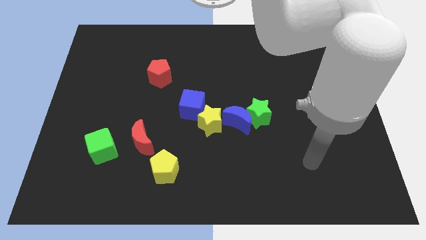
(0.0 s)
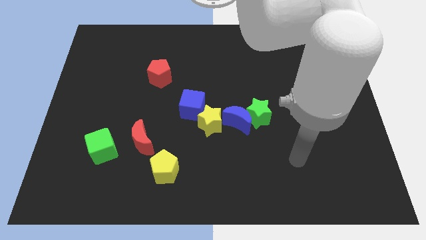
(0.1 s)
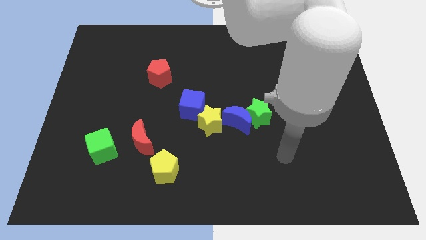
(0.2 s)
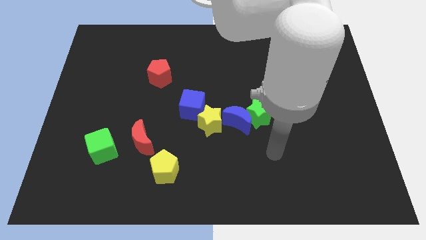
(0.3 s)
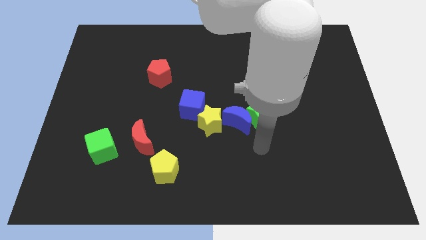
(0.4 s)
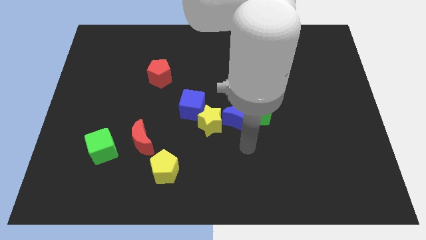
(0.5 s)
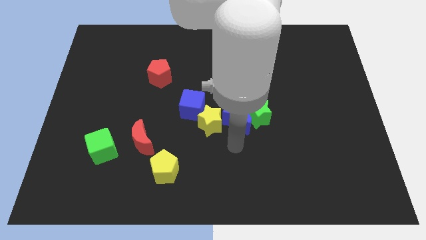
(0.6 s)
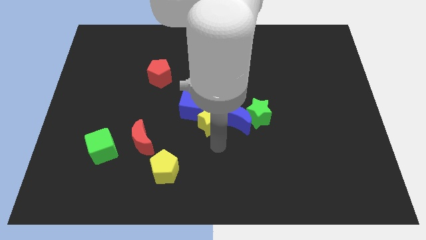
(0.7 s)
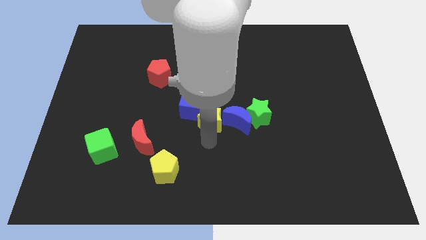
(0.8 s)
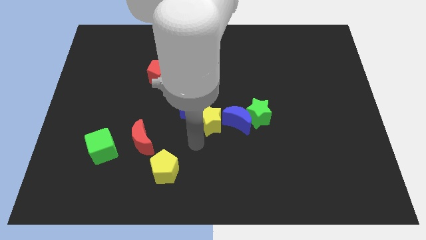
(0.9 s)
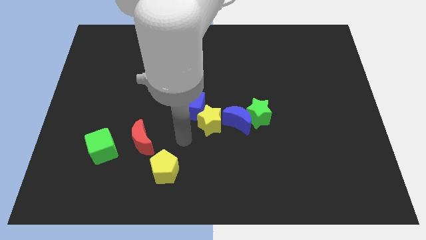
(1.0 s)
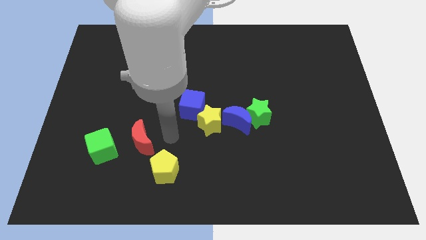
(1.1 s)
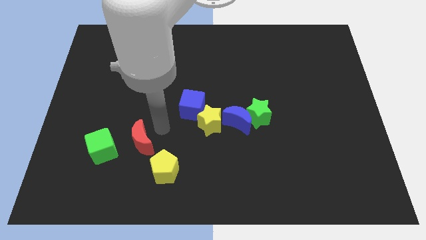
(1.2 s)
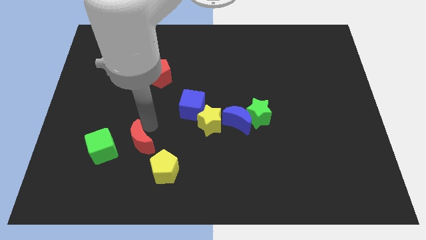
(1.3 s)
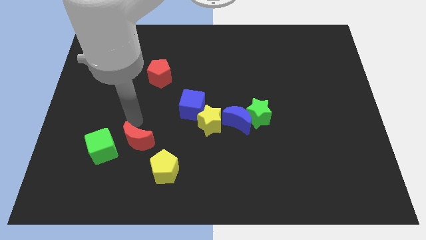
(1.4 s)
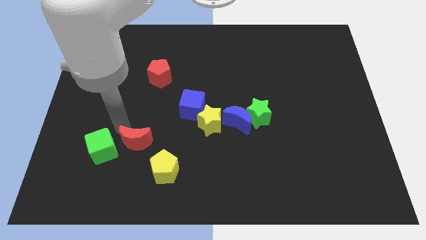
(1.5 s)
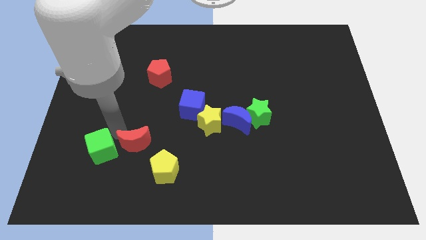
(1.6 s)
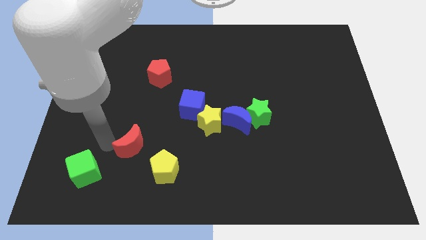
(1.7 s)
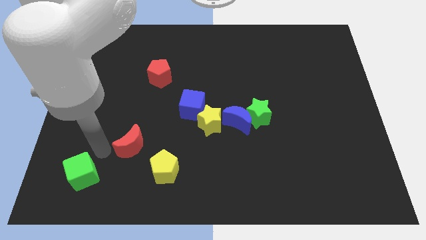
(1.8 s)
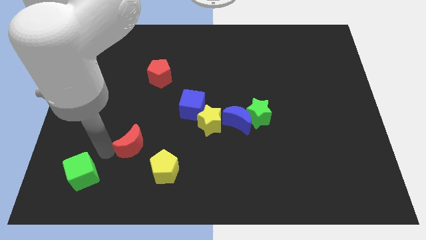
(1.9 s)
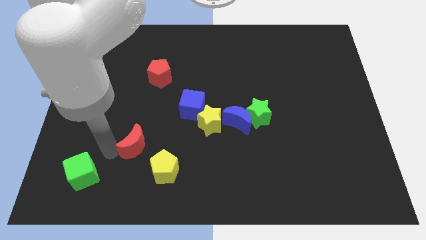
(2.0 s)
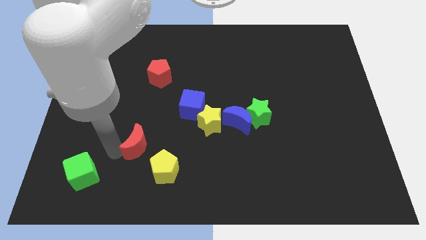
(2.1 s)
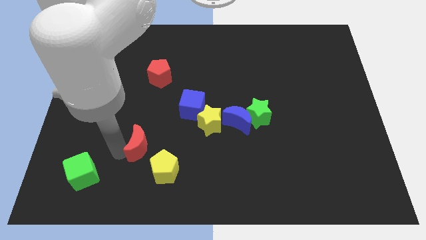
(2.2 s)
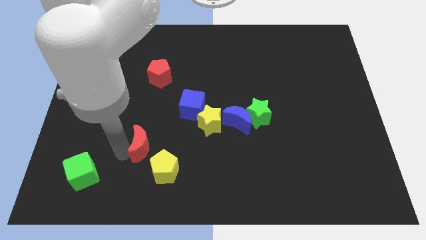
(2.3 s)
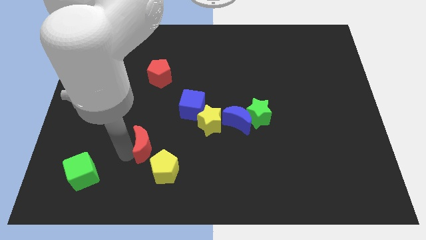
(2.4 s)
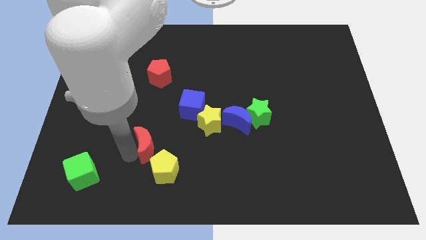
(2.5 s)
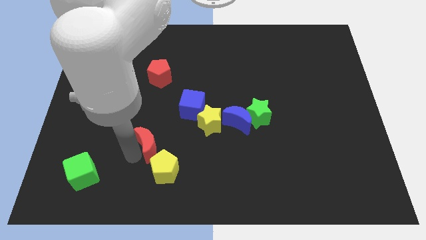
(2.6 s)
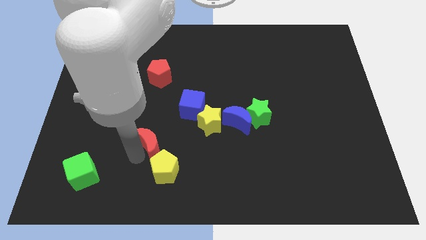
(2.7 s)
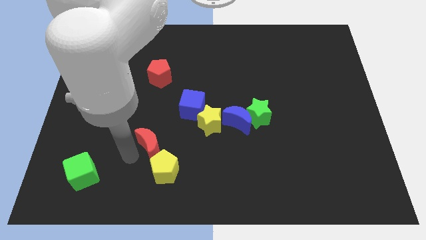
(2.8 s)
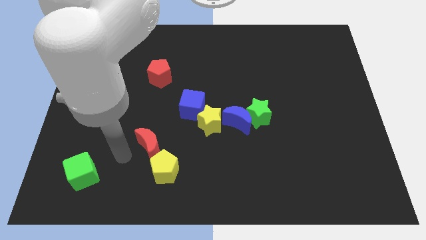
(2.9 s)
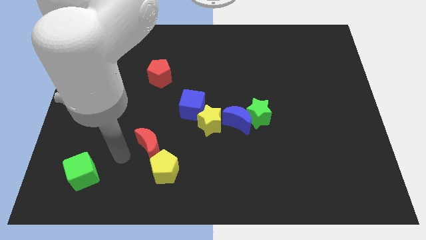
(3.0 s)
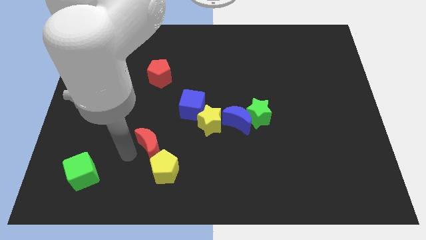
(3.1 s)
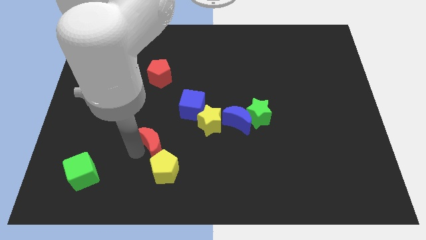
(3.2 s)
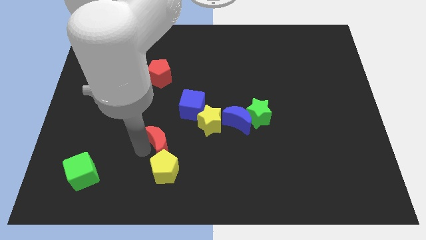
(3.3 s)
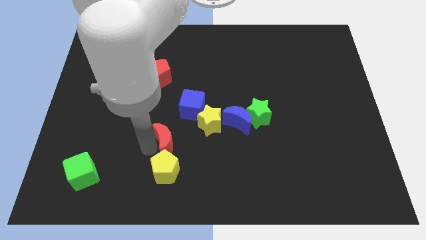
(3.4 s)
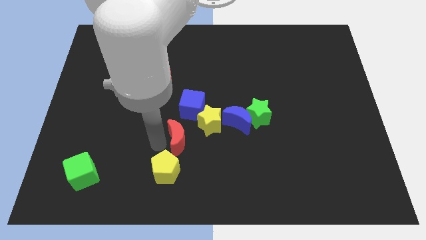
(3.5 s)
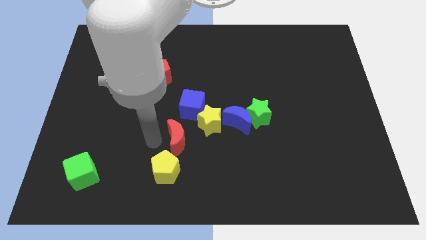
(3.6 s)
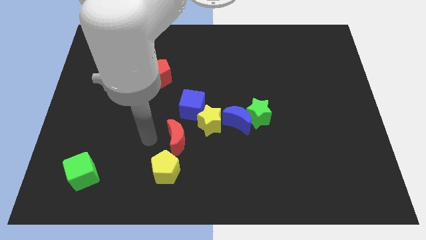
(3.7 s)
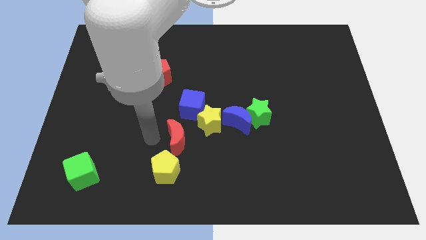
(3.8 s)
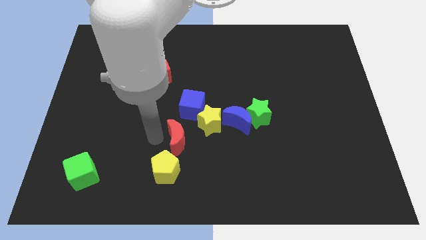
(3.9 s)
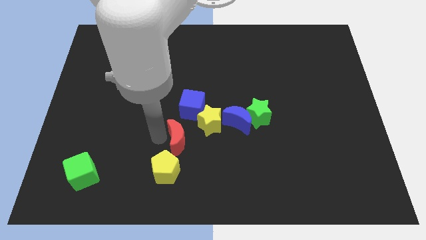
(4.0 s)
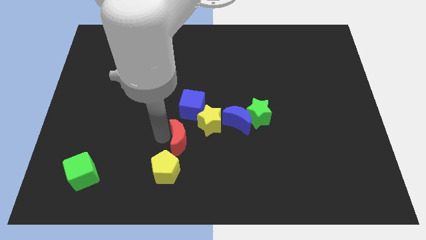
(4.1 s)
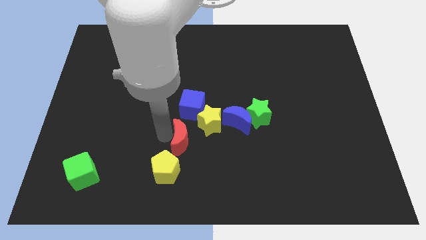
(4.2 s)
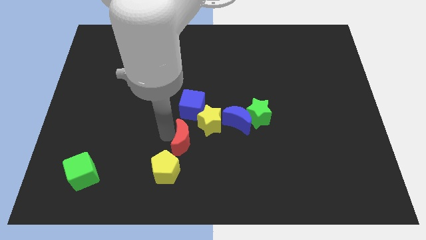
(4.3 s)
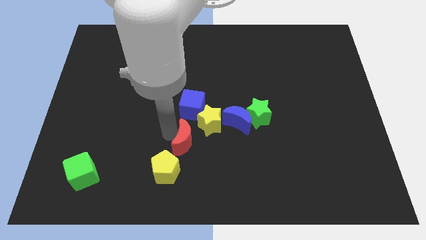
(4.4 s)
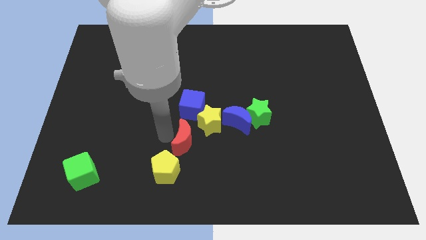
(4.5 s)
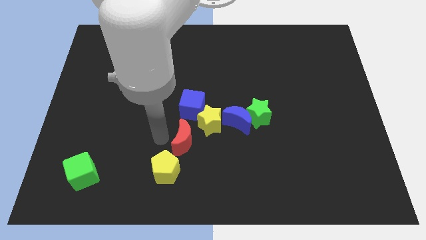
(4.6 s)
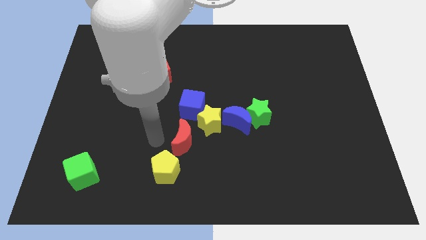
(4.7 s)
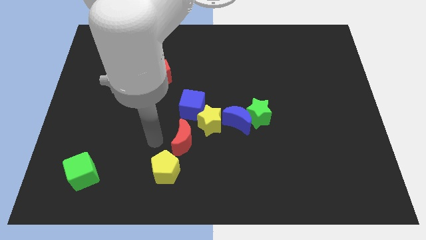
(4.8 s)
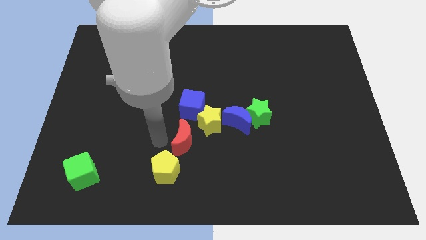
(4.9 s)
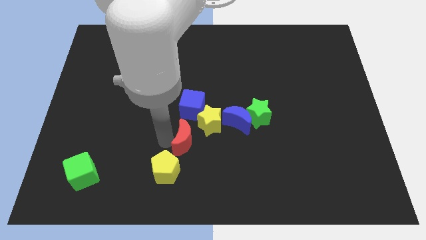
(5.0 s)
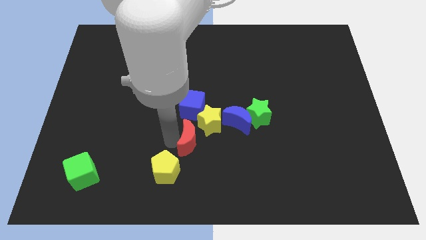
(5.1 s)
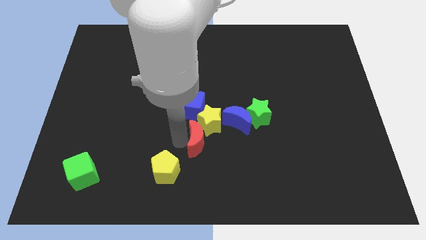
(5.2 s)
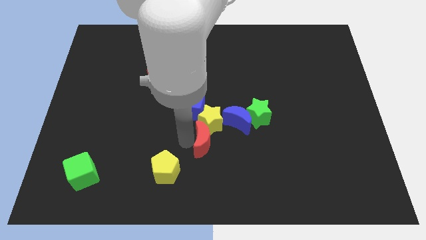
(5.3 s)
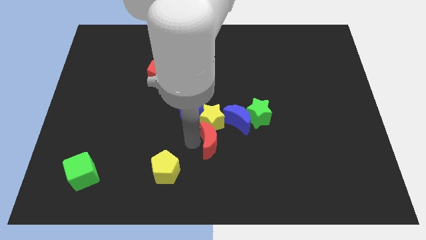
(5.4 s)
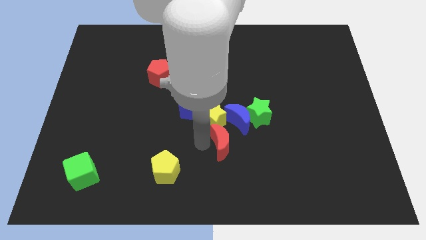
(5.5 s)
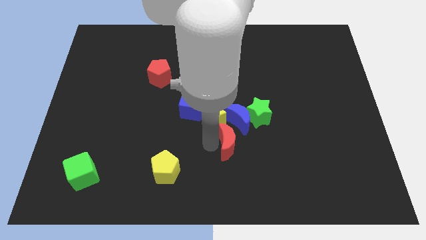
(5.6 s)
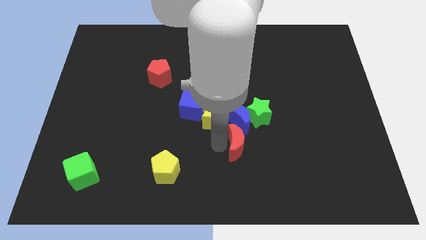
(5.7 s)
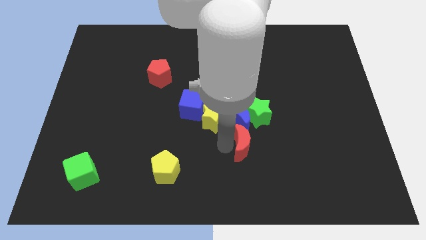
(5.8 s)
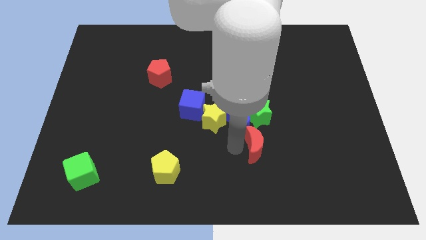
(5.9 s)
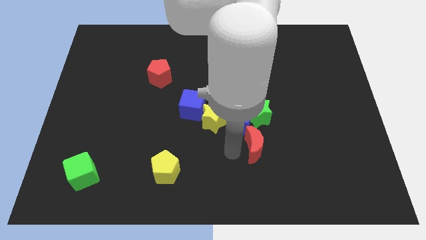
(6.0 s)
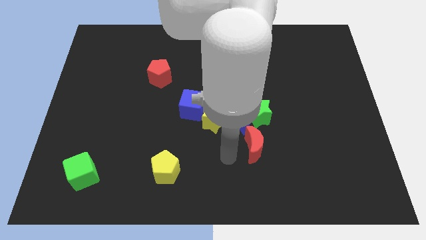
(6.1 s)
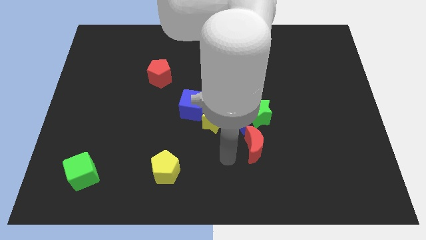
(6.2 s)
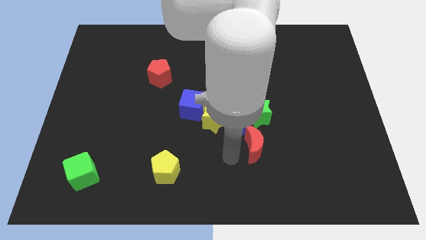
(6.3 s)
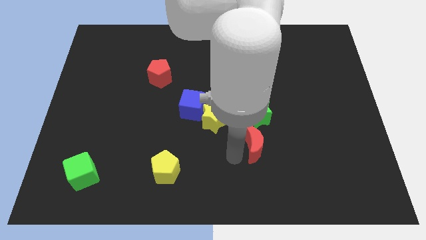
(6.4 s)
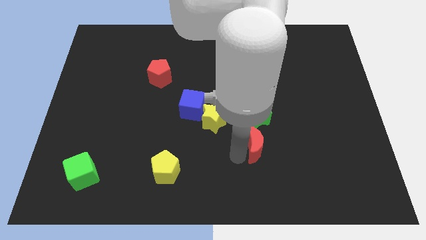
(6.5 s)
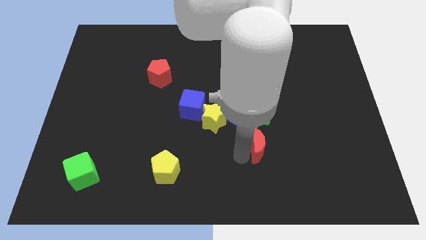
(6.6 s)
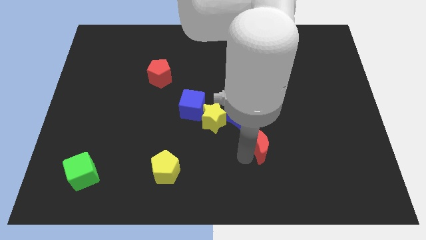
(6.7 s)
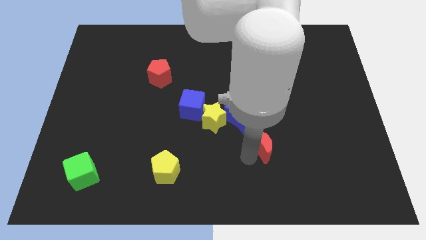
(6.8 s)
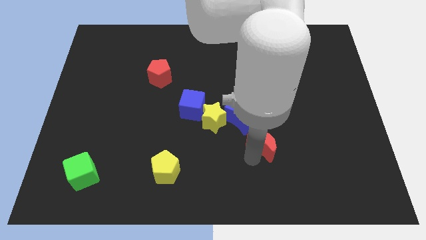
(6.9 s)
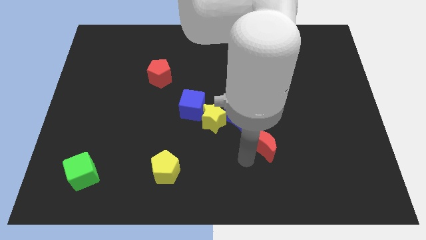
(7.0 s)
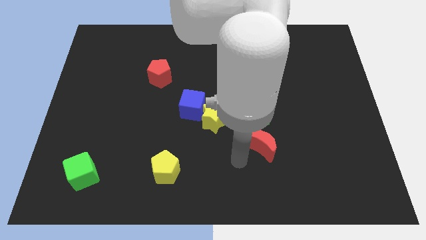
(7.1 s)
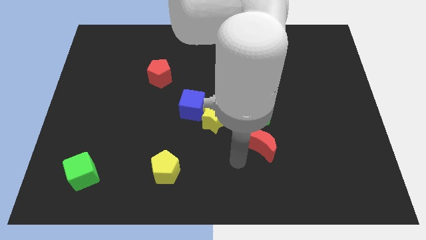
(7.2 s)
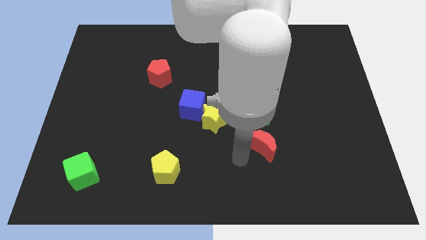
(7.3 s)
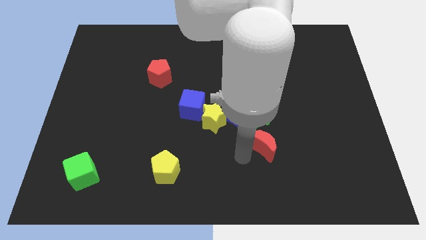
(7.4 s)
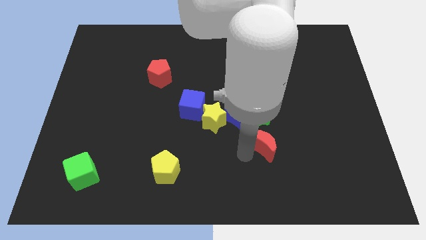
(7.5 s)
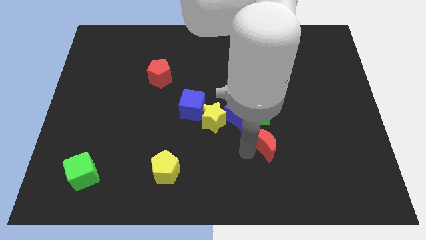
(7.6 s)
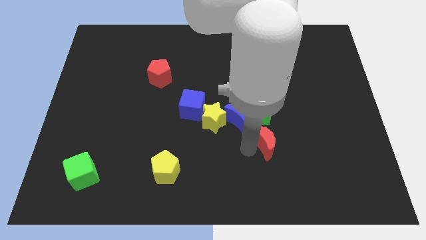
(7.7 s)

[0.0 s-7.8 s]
put the red moon to the bottom right side of the green star
